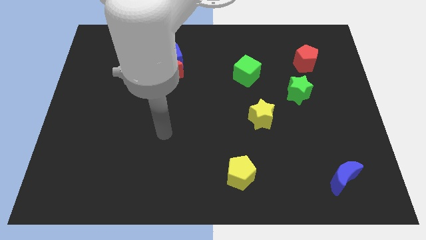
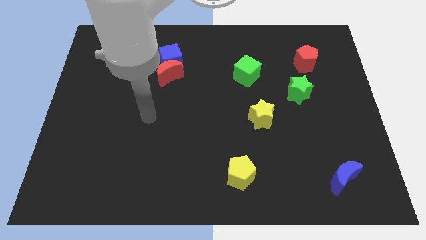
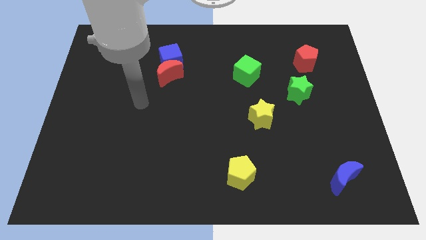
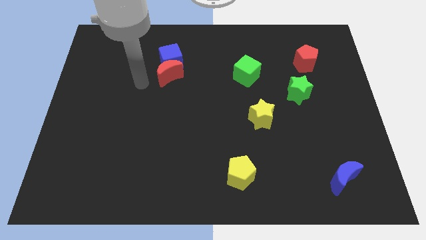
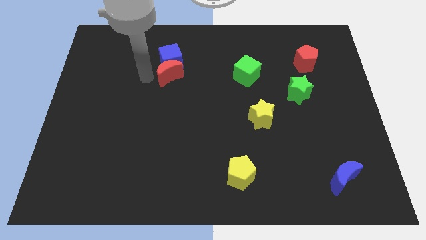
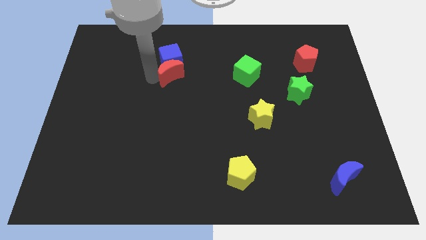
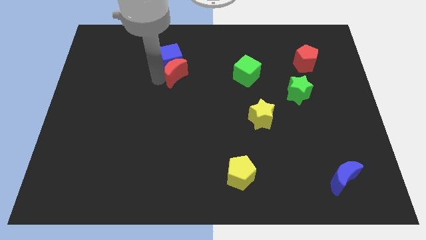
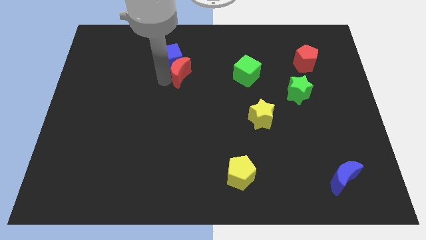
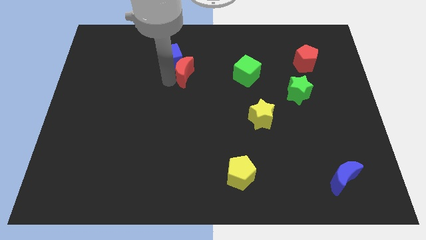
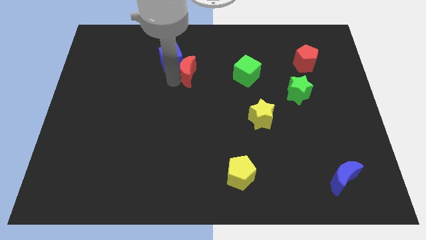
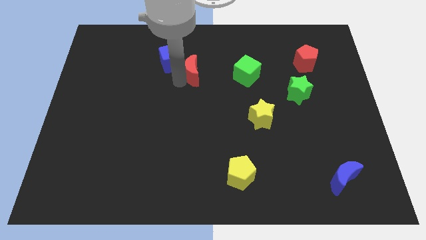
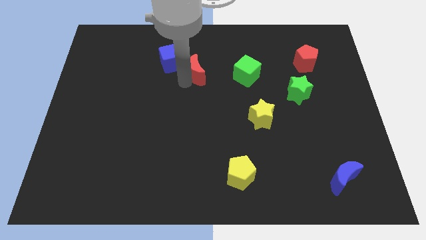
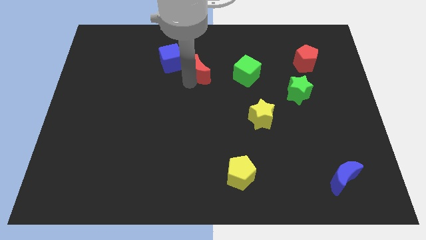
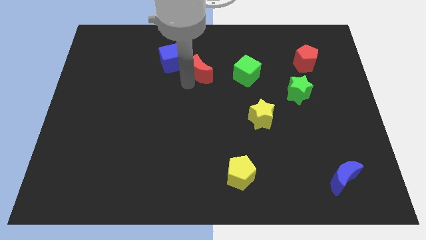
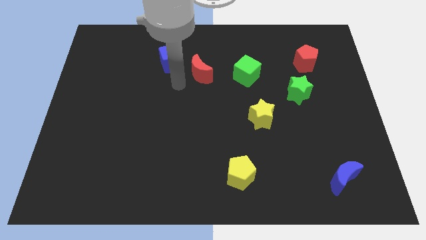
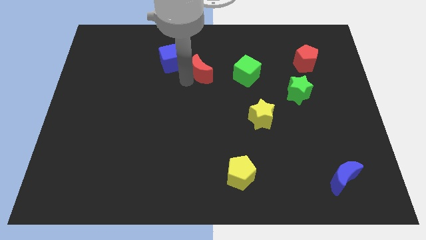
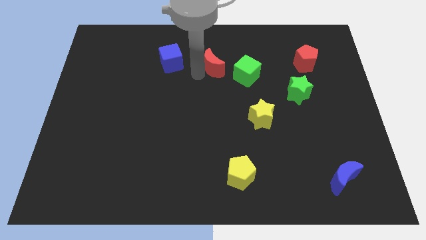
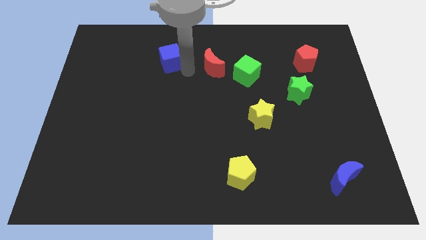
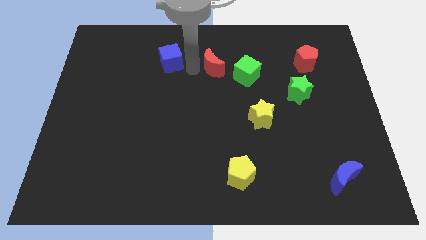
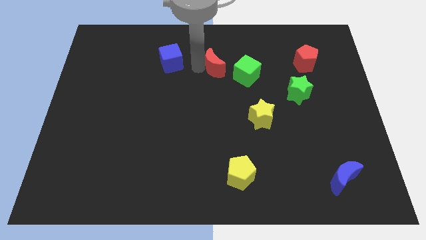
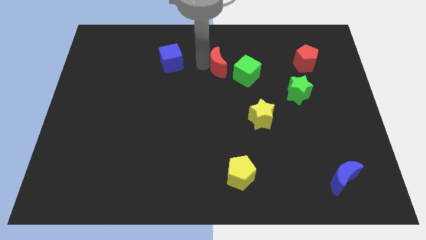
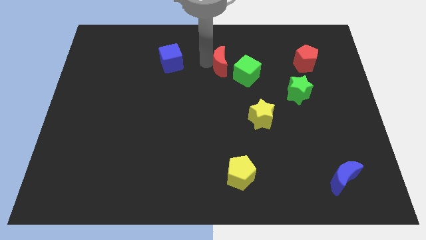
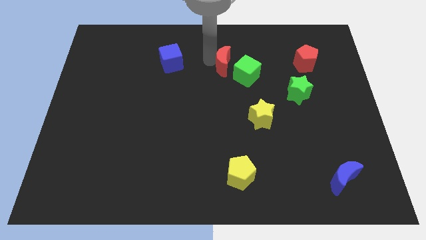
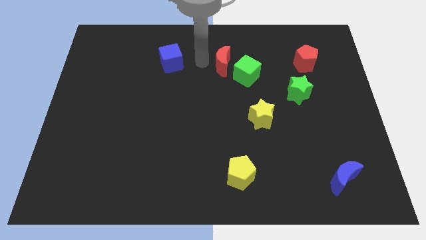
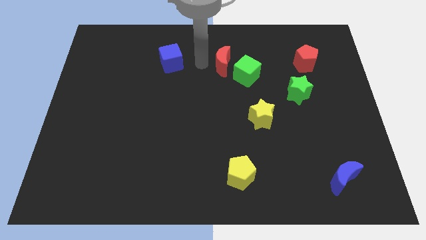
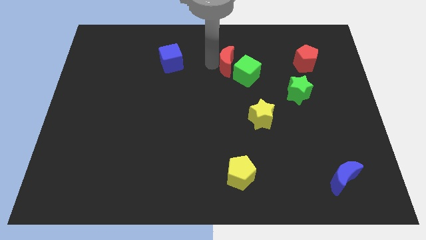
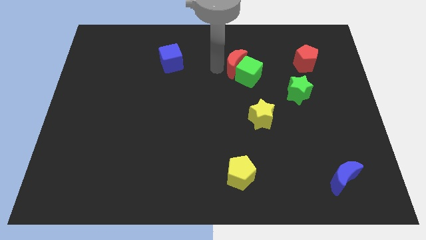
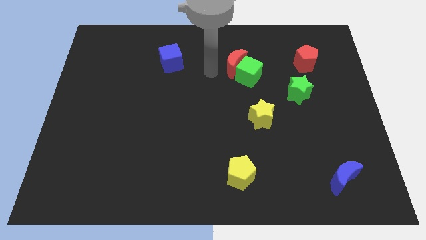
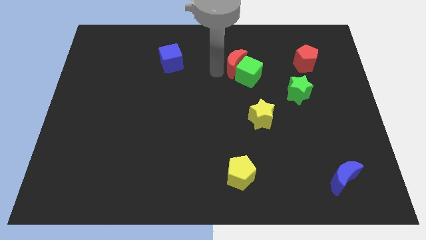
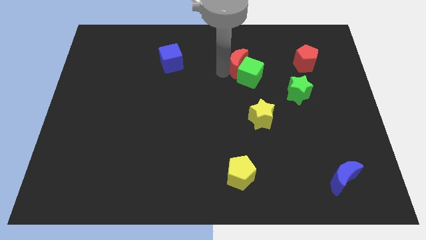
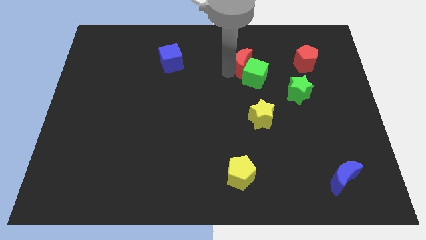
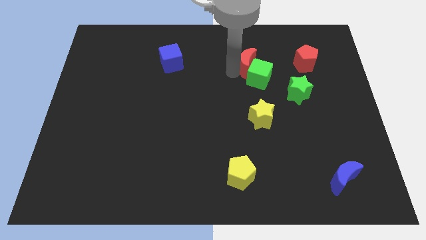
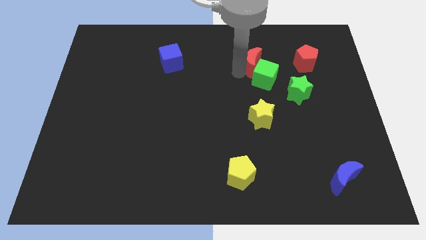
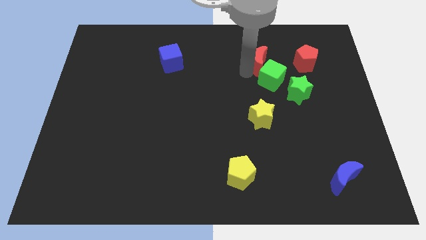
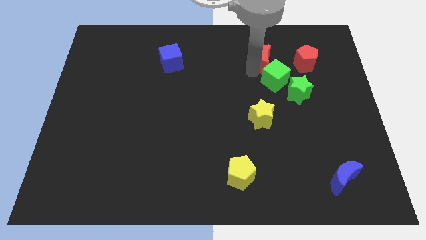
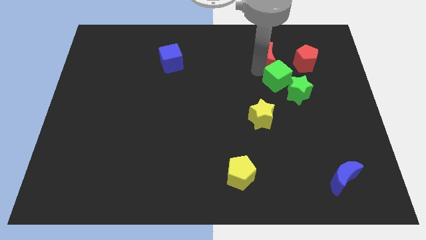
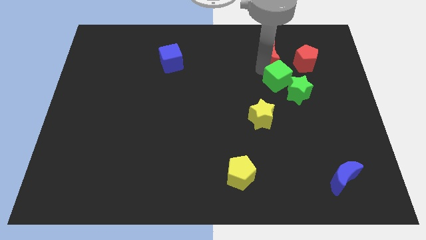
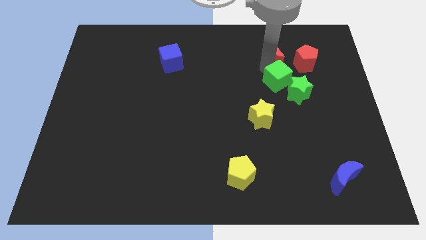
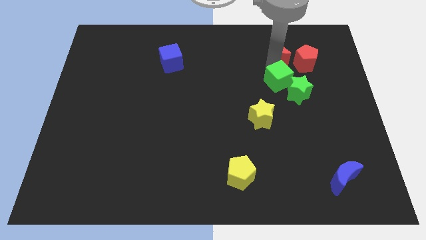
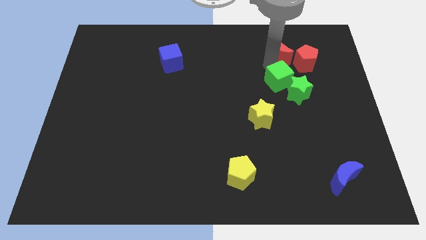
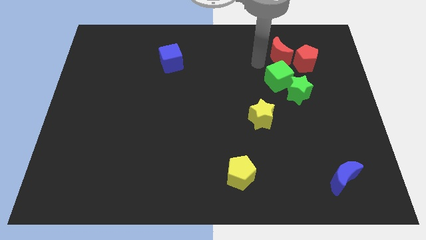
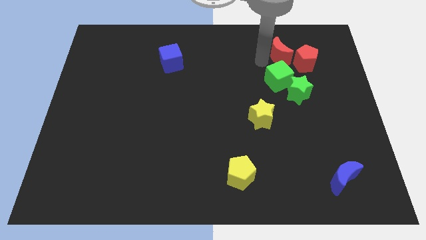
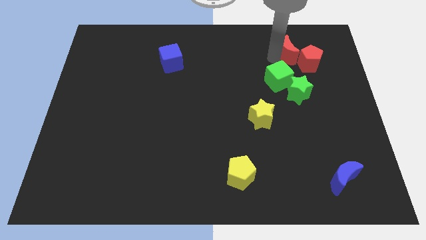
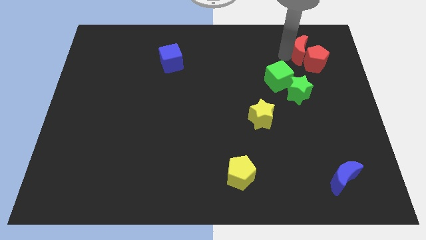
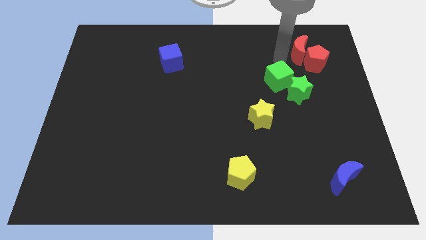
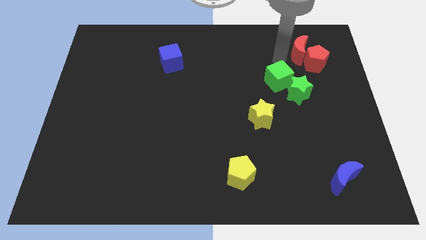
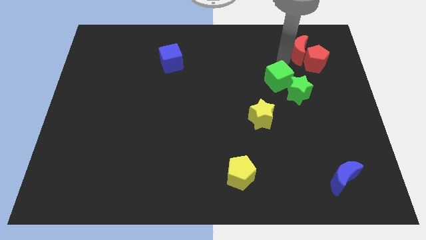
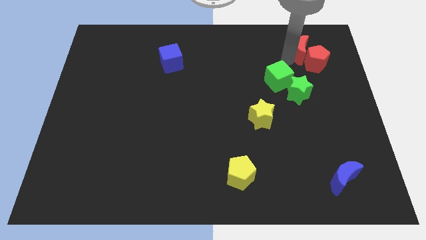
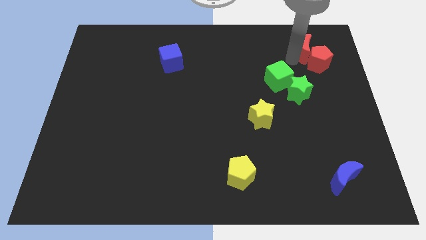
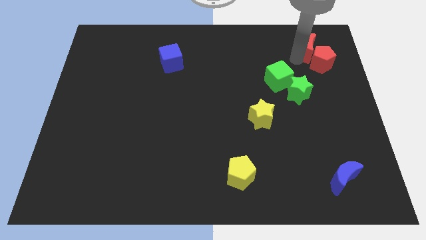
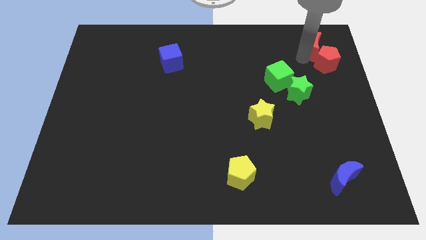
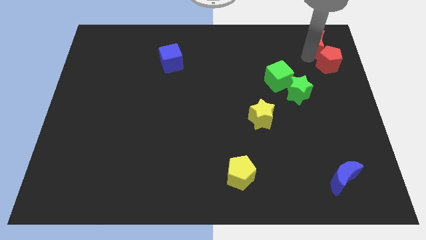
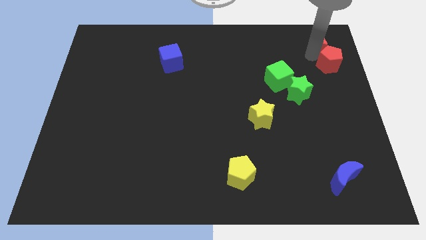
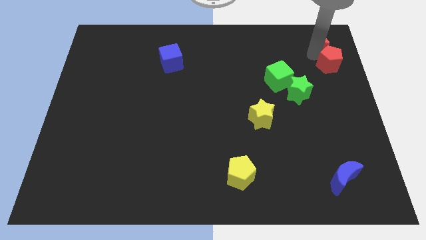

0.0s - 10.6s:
push the red moon to the upper right corner
